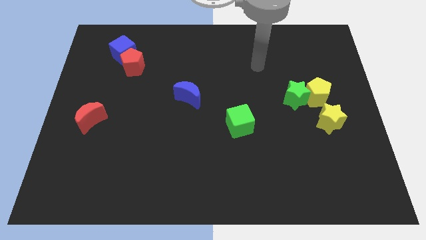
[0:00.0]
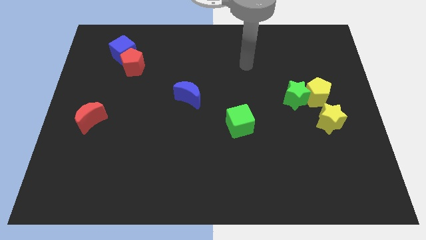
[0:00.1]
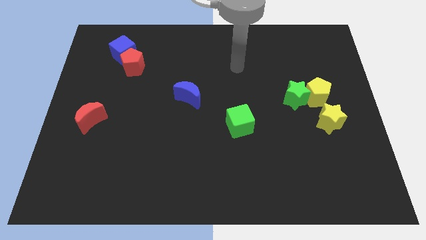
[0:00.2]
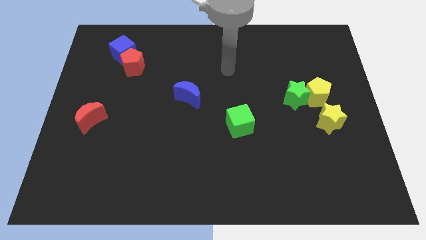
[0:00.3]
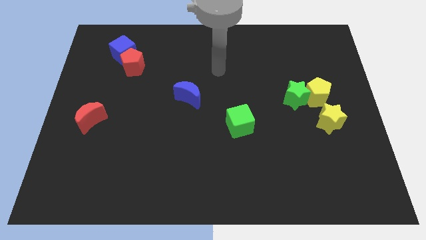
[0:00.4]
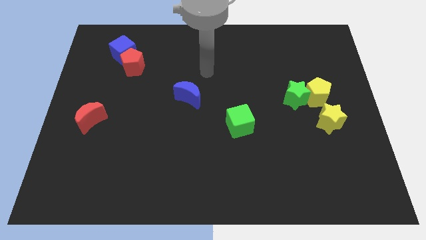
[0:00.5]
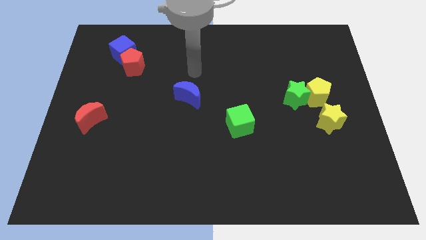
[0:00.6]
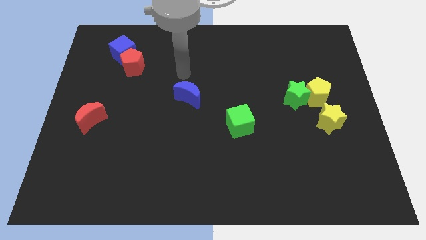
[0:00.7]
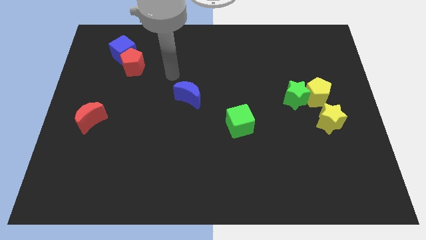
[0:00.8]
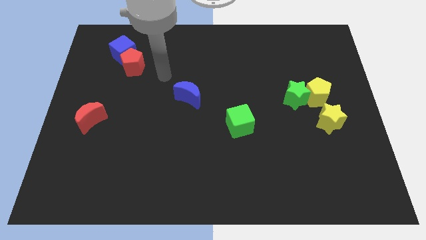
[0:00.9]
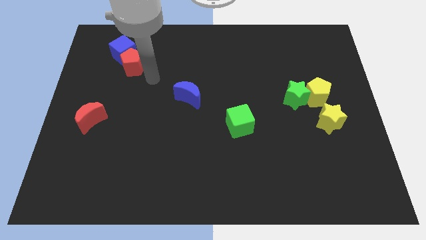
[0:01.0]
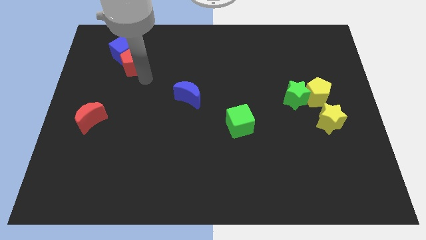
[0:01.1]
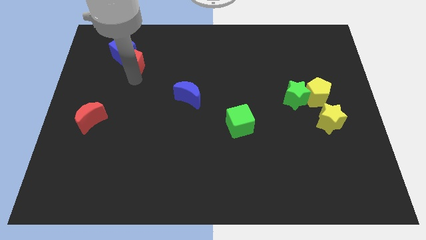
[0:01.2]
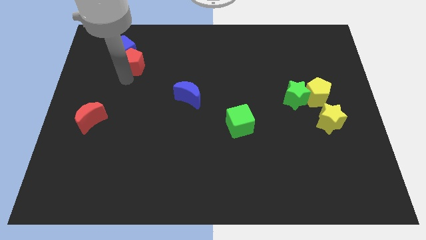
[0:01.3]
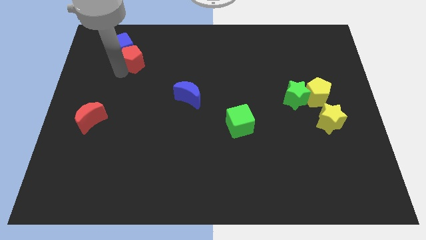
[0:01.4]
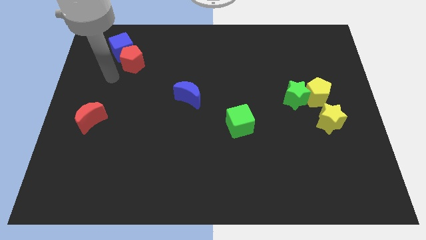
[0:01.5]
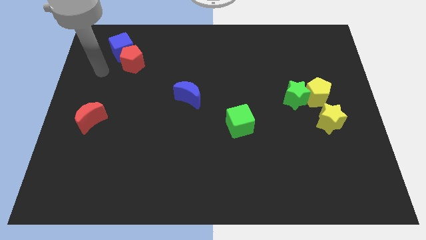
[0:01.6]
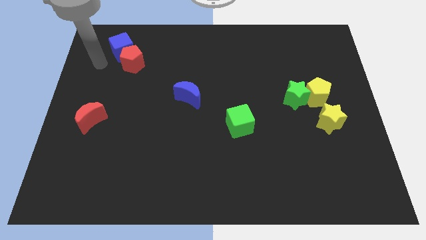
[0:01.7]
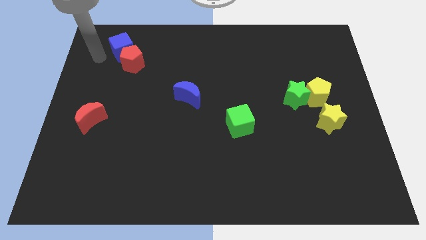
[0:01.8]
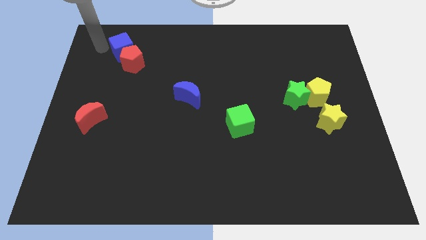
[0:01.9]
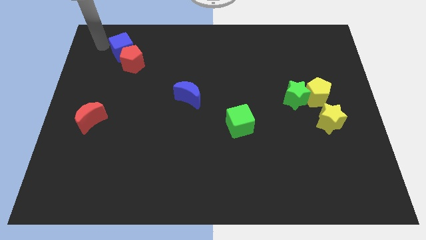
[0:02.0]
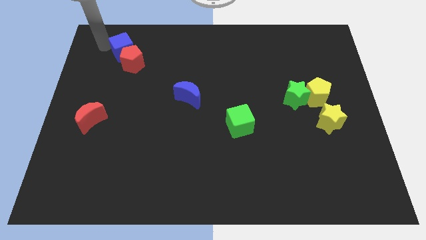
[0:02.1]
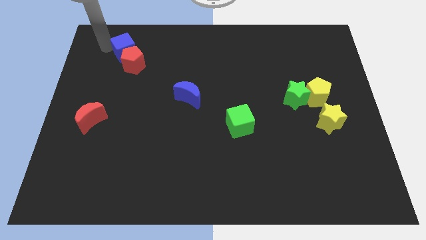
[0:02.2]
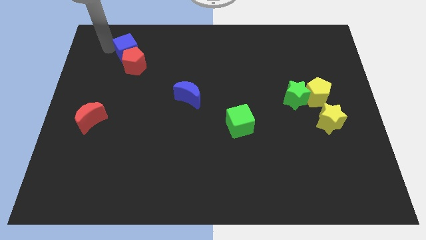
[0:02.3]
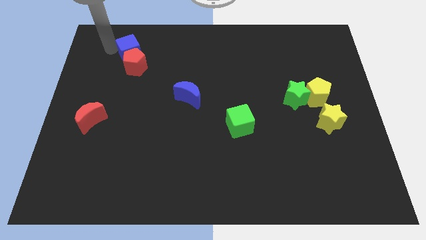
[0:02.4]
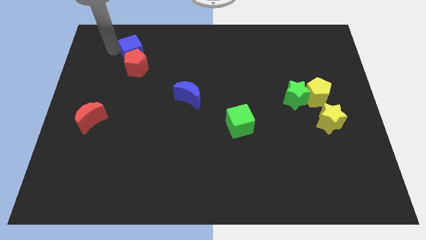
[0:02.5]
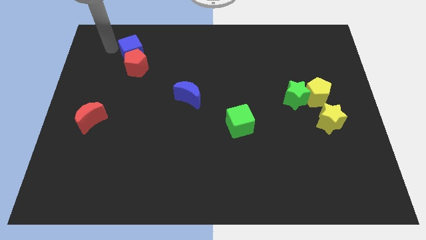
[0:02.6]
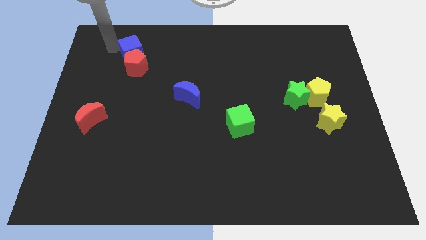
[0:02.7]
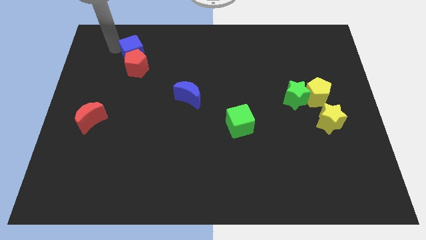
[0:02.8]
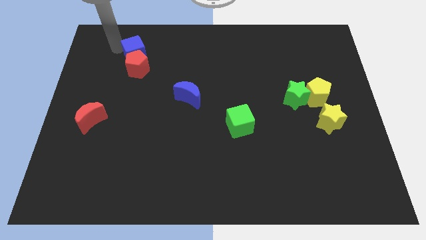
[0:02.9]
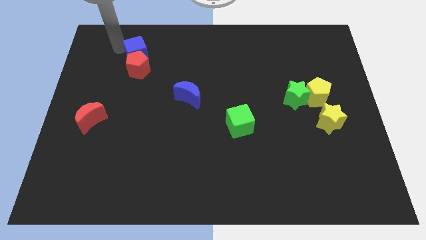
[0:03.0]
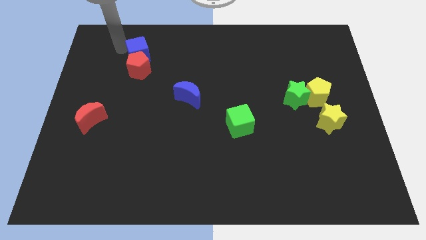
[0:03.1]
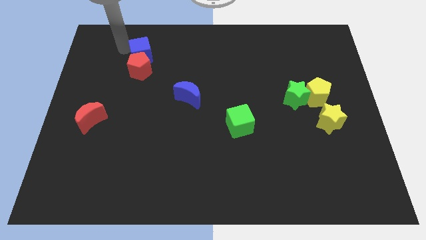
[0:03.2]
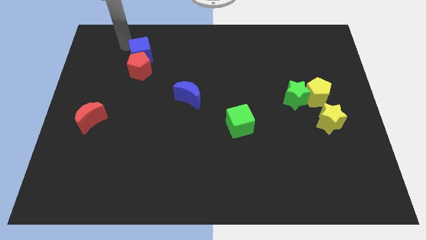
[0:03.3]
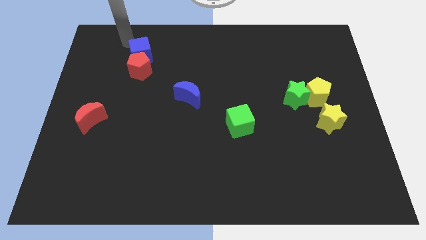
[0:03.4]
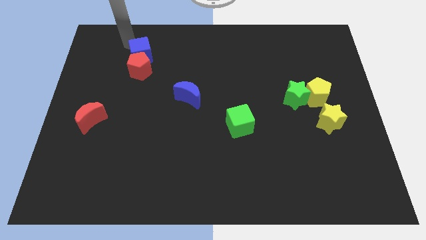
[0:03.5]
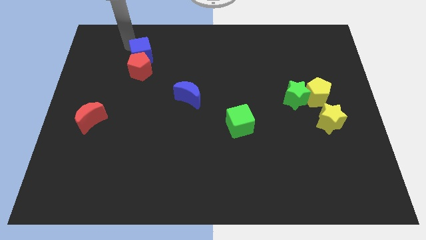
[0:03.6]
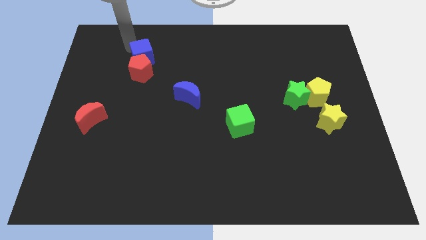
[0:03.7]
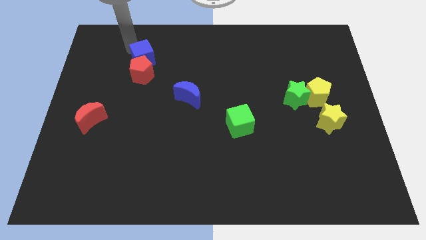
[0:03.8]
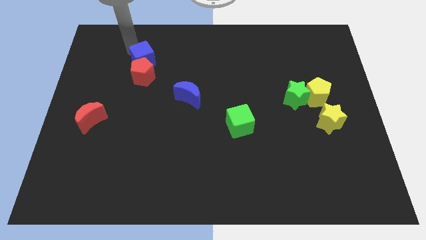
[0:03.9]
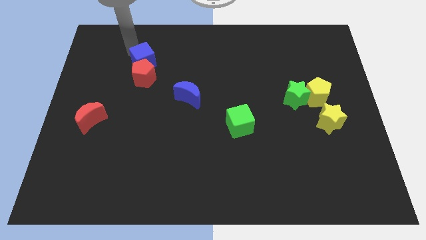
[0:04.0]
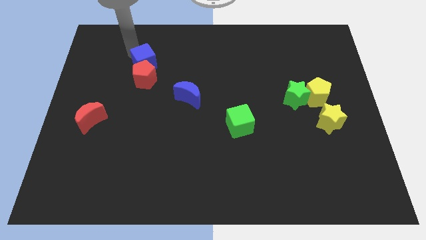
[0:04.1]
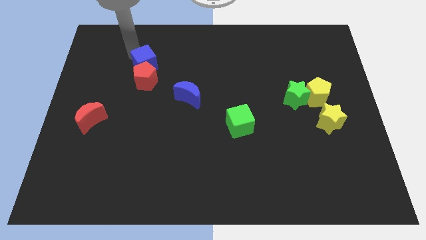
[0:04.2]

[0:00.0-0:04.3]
slightly move the blue cube down and then right

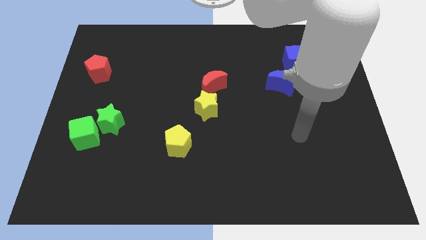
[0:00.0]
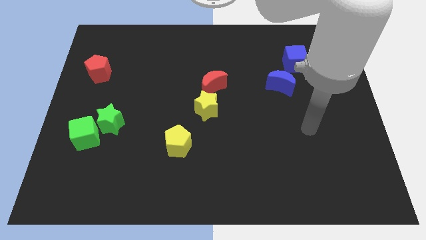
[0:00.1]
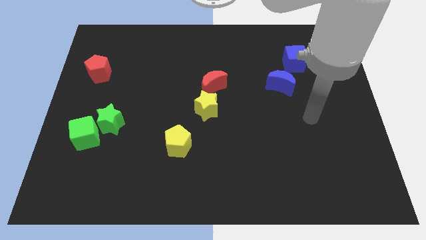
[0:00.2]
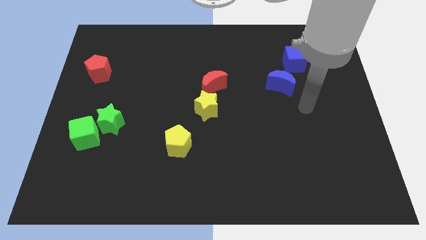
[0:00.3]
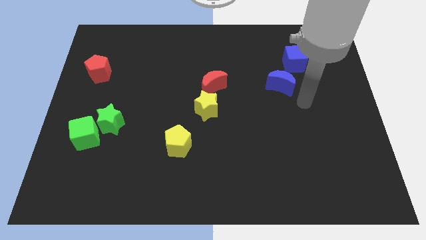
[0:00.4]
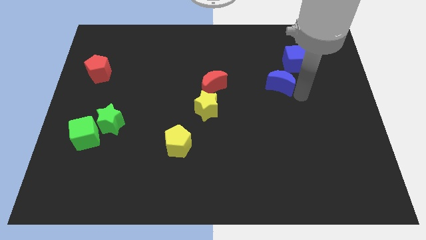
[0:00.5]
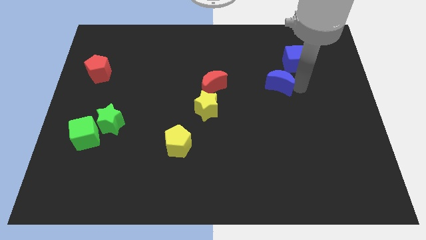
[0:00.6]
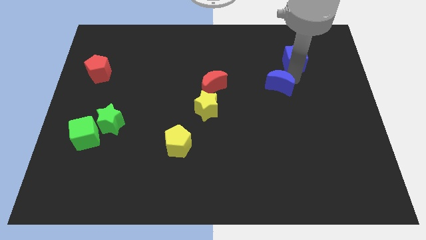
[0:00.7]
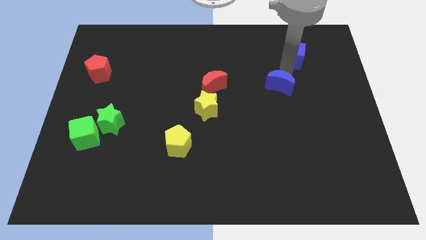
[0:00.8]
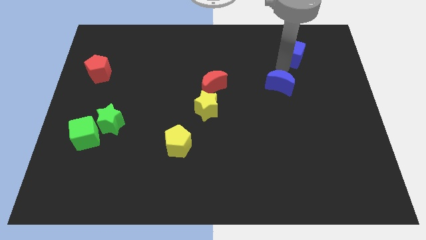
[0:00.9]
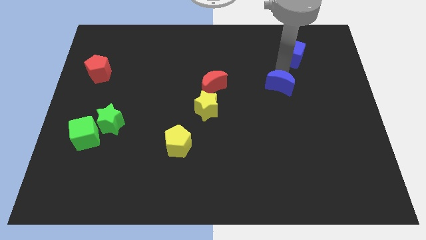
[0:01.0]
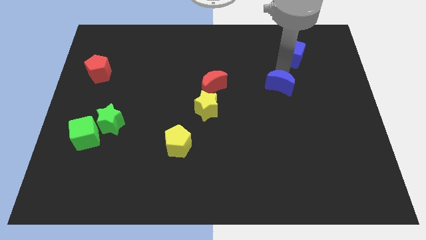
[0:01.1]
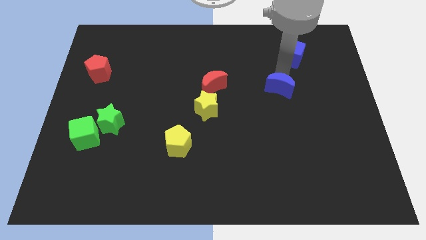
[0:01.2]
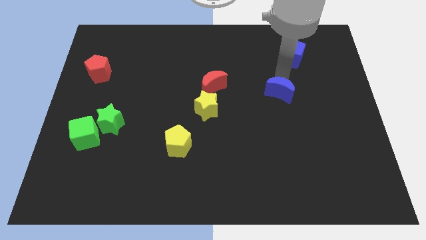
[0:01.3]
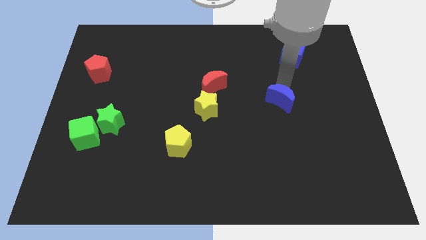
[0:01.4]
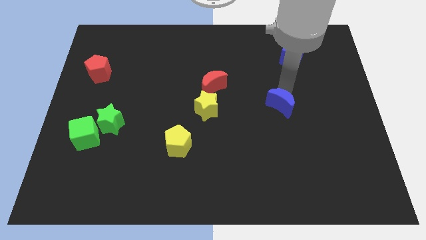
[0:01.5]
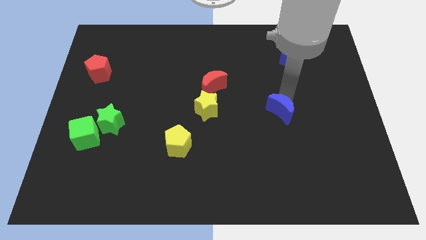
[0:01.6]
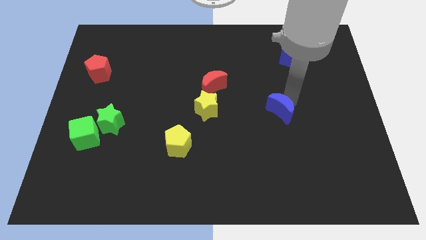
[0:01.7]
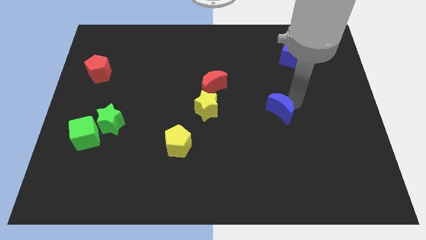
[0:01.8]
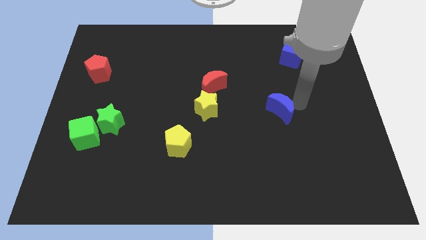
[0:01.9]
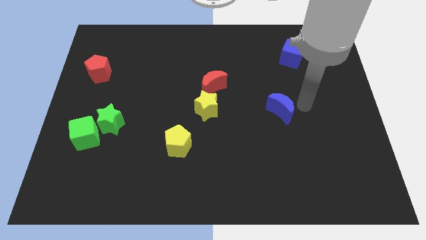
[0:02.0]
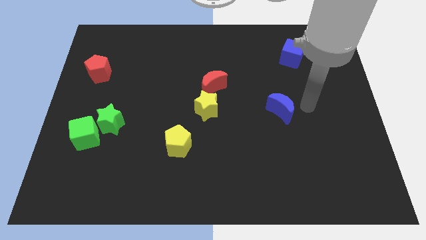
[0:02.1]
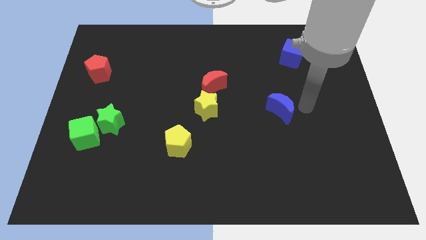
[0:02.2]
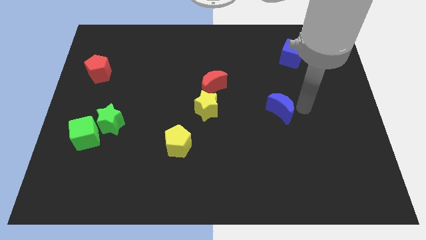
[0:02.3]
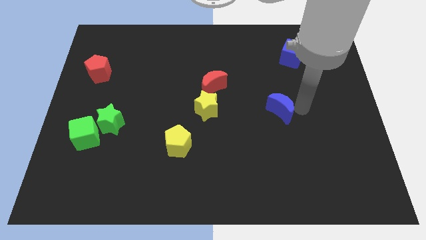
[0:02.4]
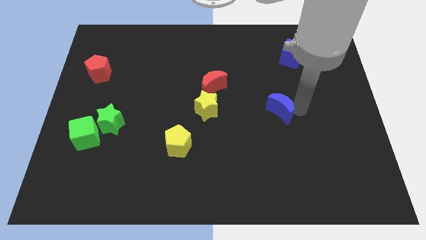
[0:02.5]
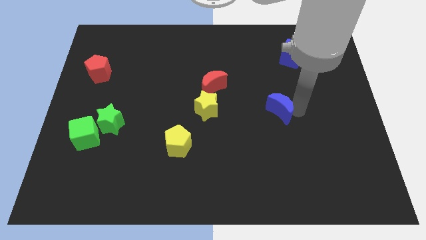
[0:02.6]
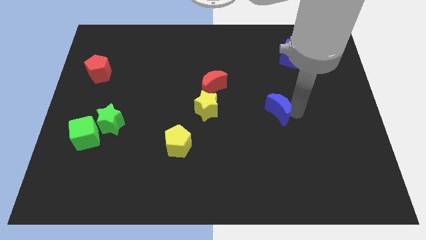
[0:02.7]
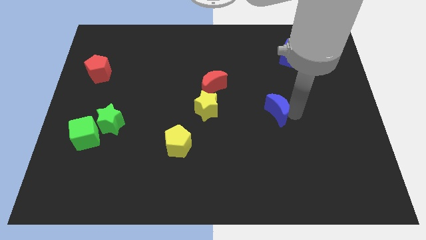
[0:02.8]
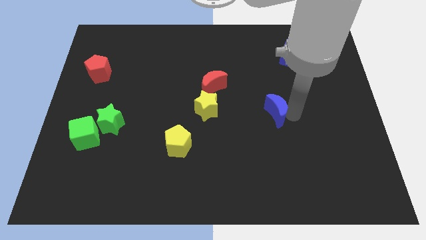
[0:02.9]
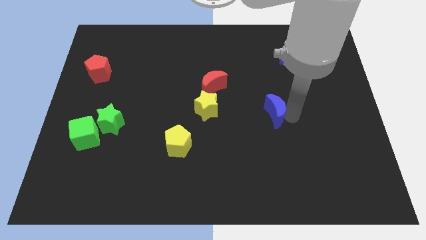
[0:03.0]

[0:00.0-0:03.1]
slide the blue moon slightly downwards and left diagonally

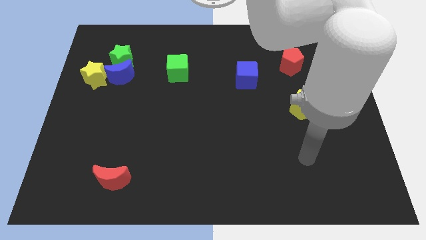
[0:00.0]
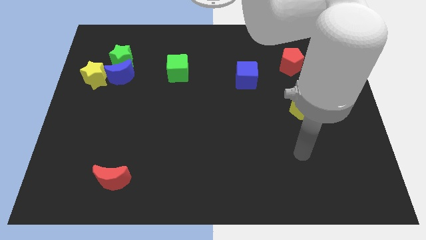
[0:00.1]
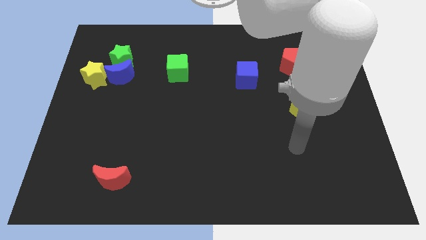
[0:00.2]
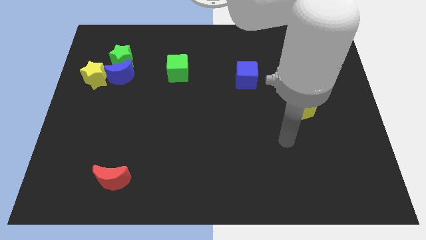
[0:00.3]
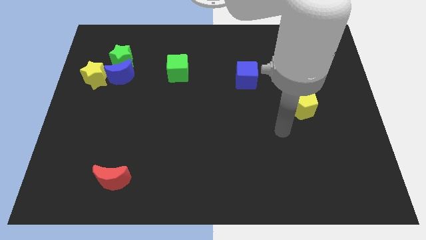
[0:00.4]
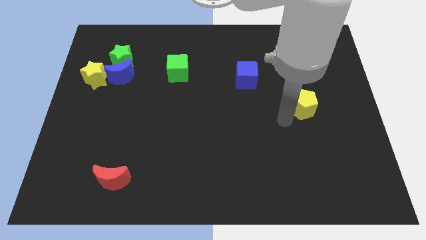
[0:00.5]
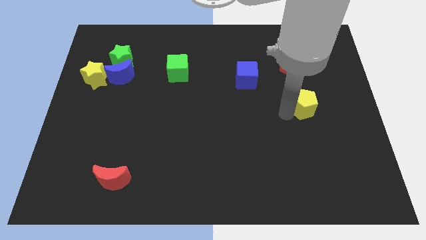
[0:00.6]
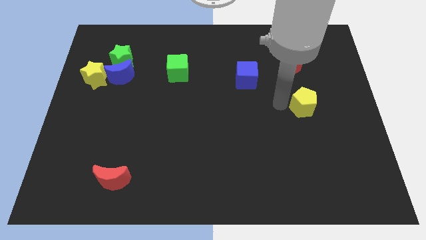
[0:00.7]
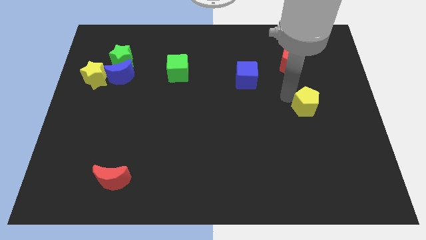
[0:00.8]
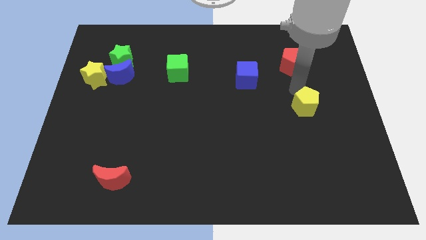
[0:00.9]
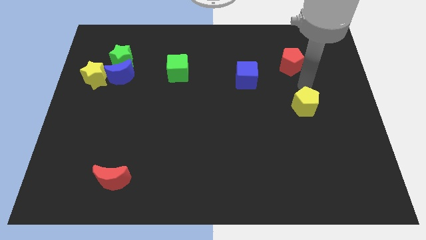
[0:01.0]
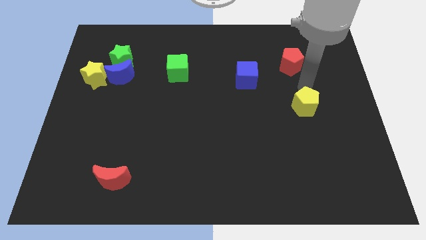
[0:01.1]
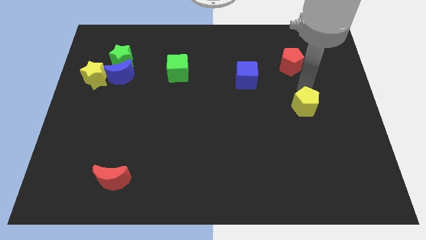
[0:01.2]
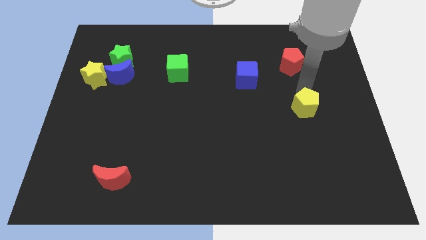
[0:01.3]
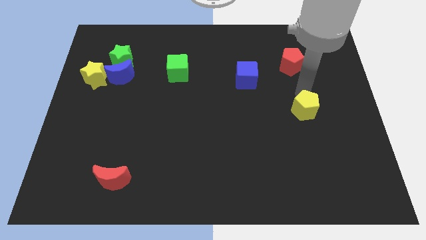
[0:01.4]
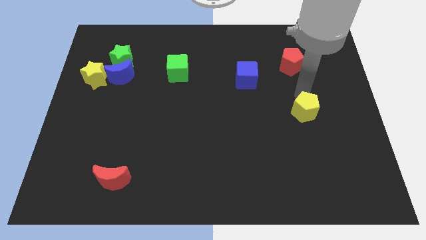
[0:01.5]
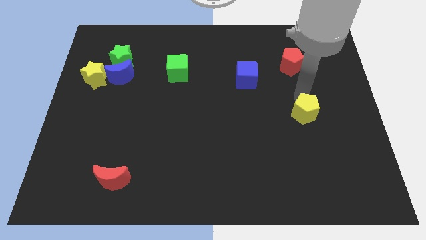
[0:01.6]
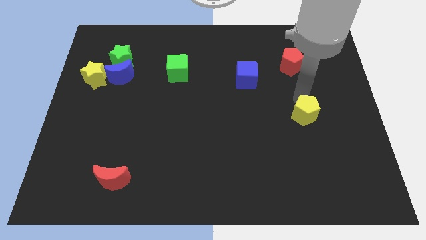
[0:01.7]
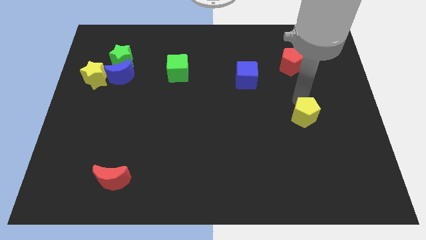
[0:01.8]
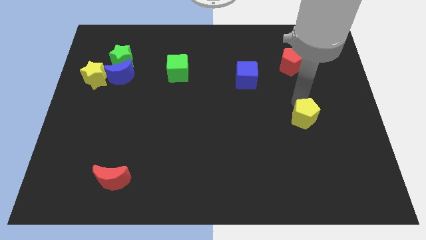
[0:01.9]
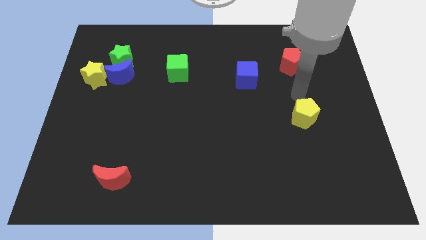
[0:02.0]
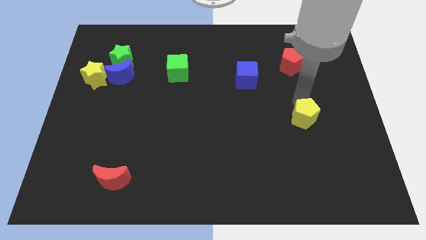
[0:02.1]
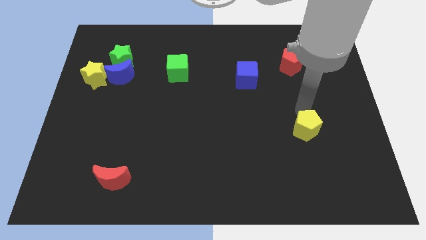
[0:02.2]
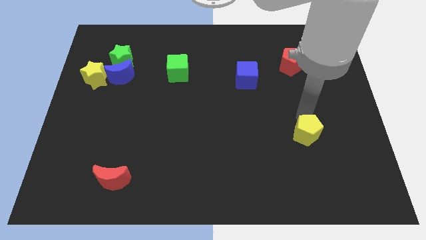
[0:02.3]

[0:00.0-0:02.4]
slide the yellow pentagon a bit down
